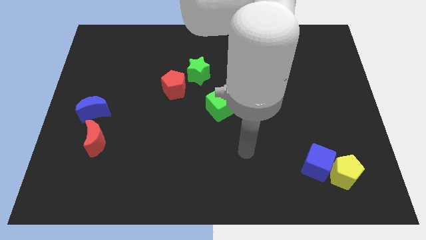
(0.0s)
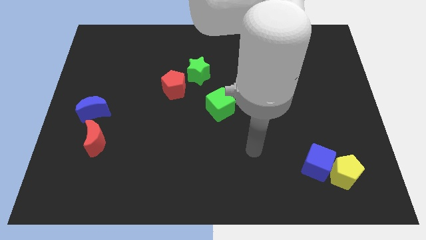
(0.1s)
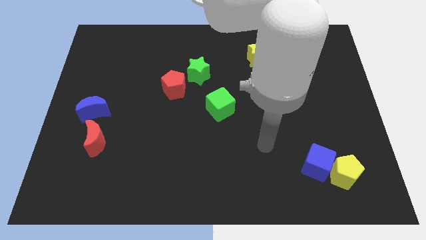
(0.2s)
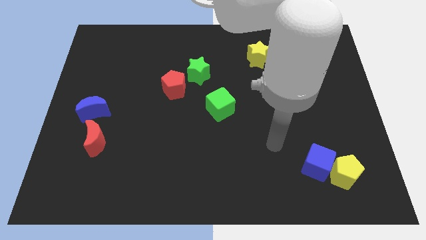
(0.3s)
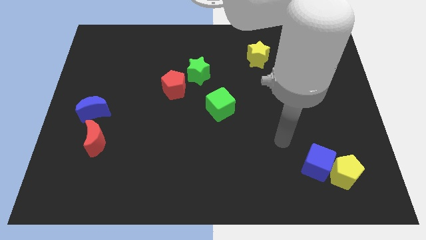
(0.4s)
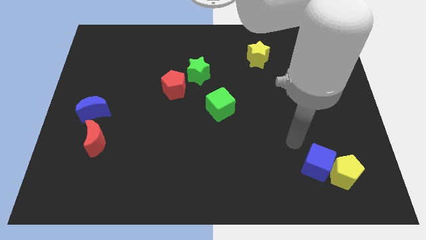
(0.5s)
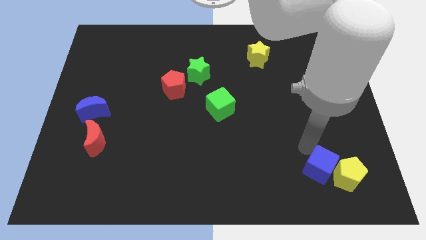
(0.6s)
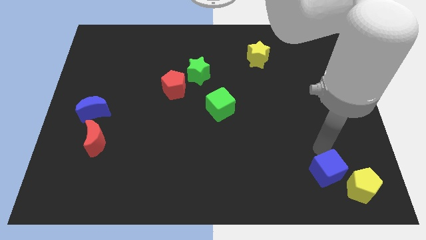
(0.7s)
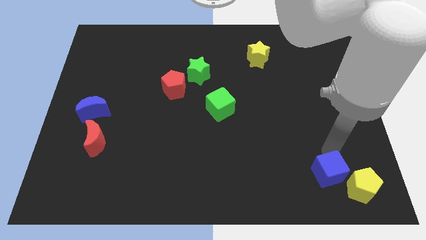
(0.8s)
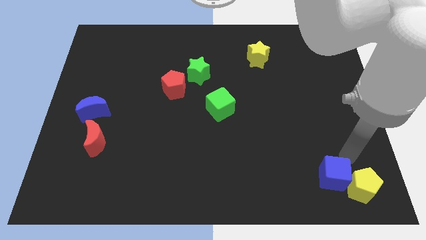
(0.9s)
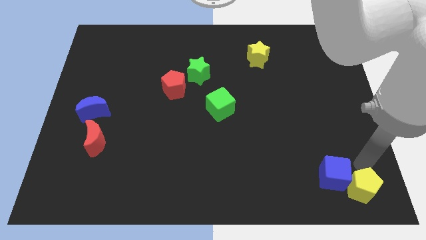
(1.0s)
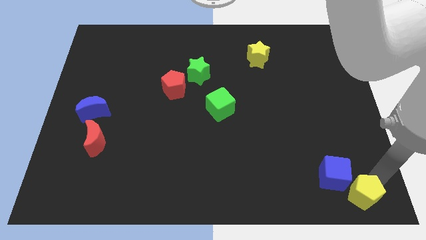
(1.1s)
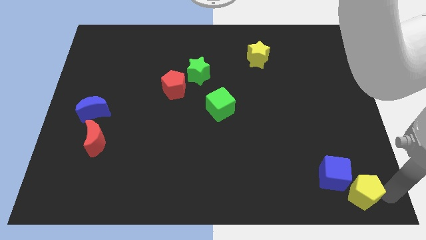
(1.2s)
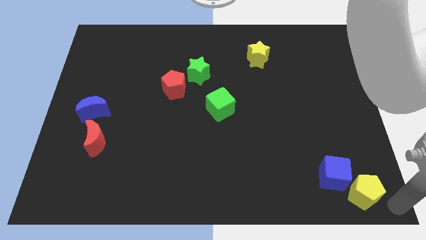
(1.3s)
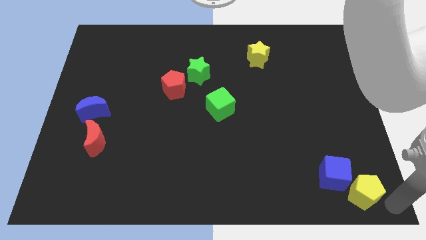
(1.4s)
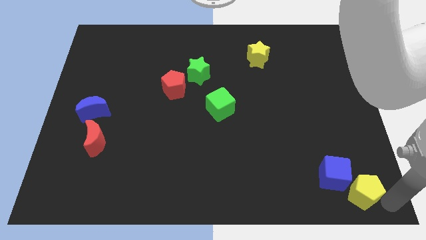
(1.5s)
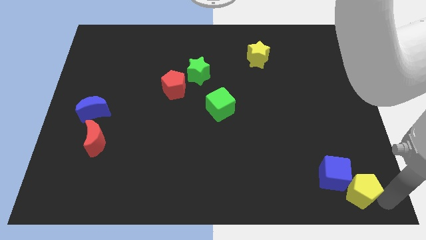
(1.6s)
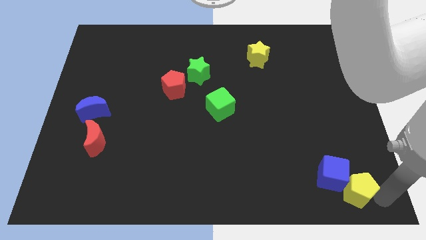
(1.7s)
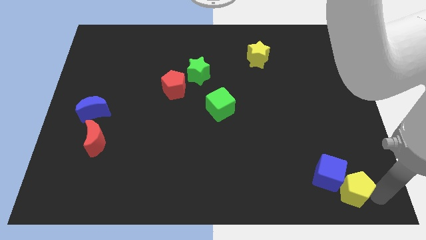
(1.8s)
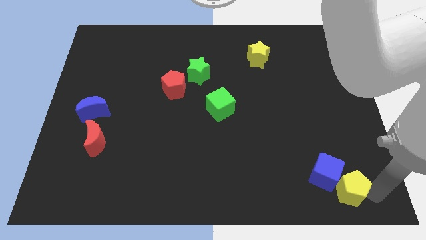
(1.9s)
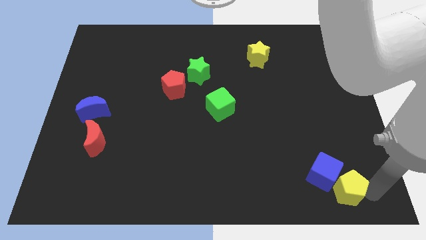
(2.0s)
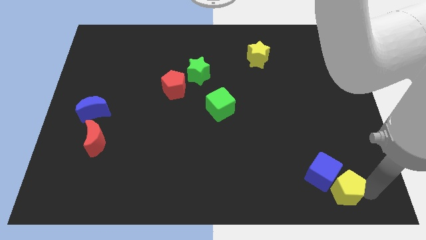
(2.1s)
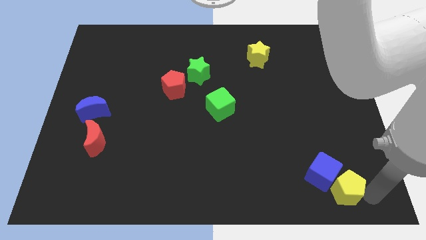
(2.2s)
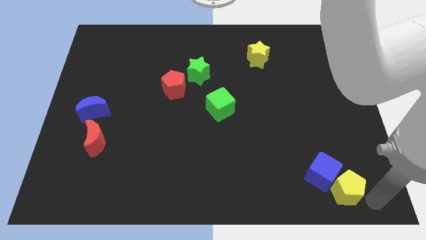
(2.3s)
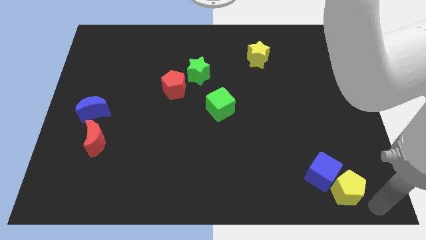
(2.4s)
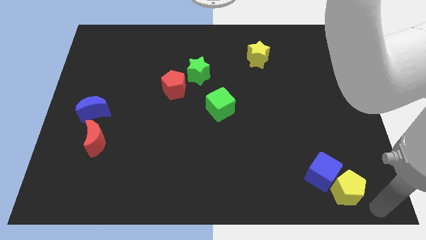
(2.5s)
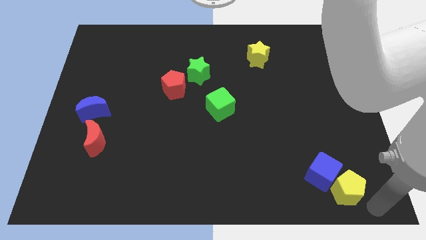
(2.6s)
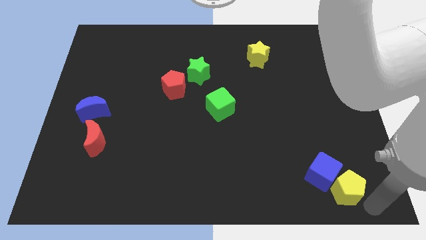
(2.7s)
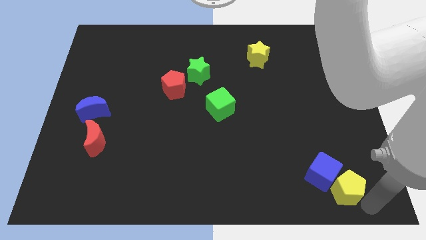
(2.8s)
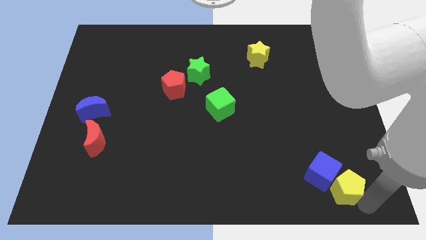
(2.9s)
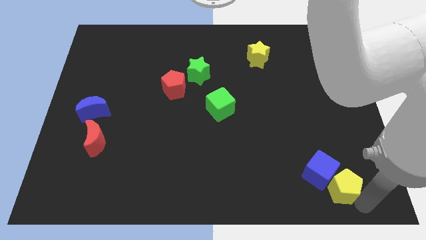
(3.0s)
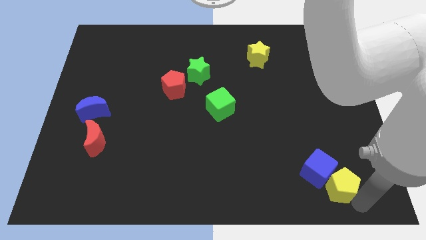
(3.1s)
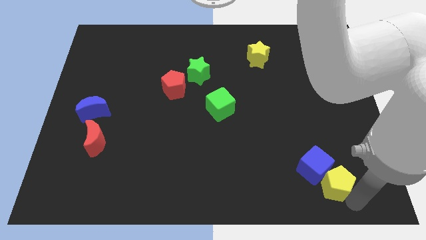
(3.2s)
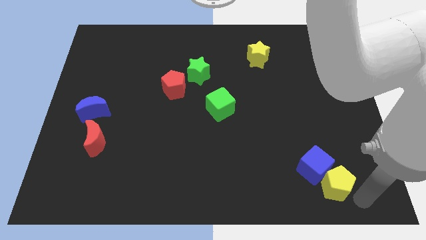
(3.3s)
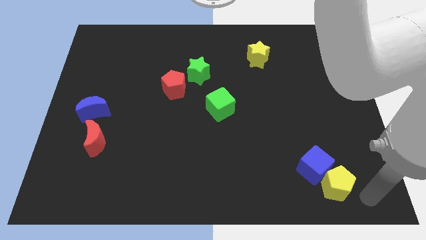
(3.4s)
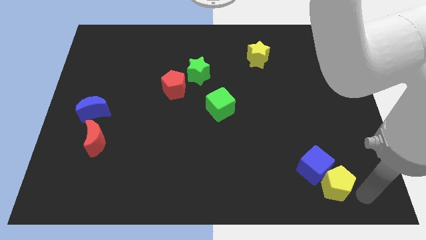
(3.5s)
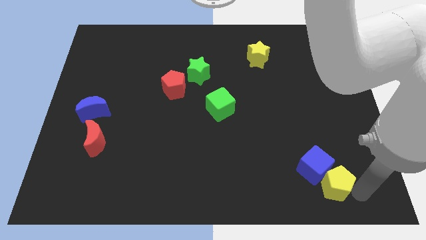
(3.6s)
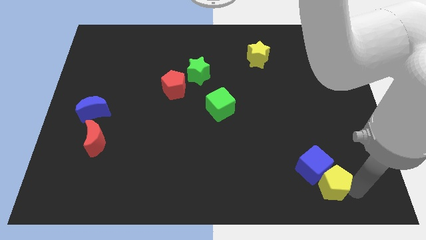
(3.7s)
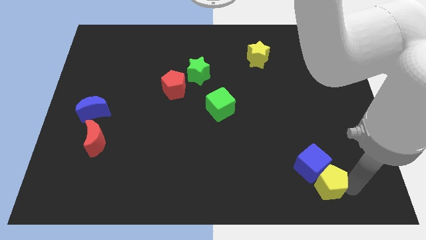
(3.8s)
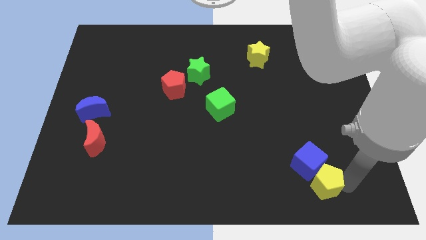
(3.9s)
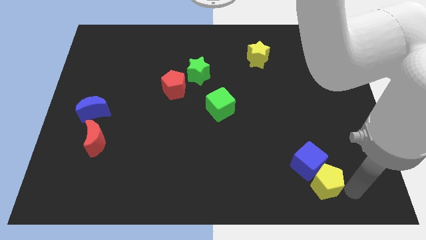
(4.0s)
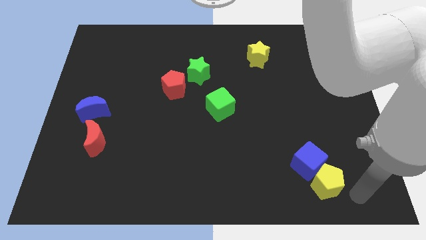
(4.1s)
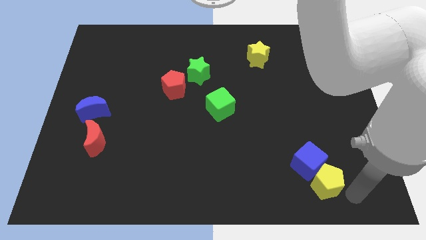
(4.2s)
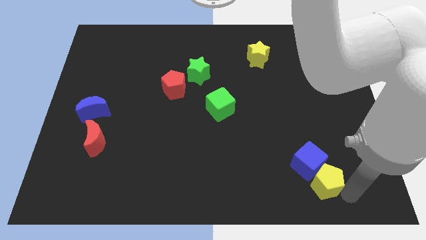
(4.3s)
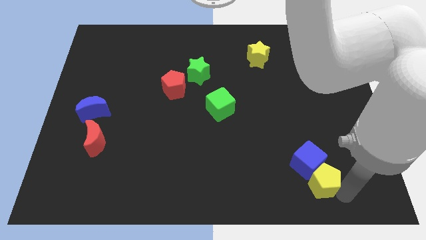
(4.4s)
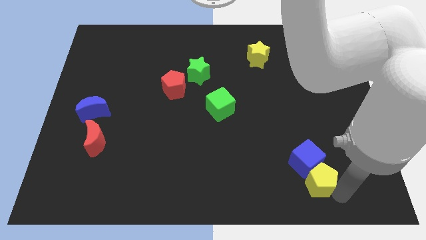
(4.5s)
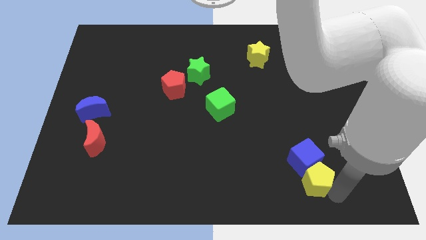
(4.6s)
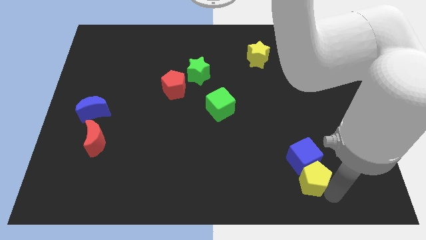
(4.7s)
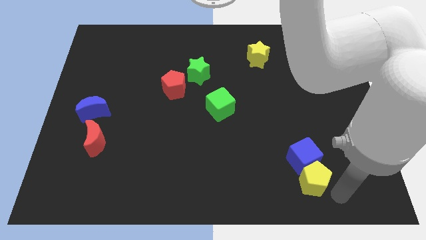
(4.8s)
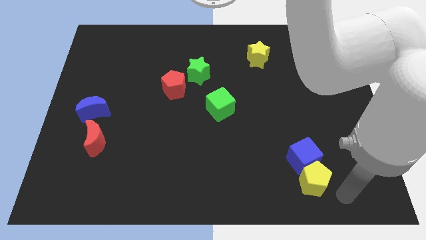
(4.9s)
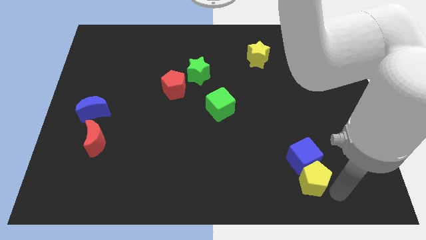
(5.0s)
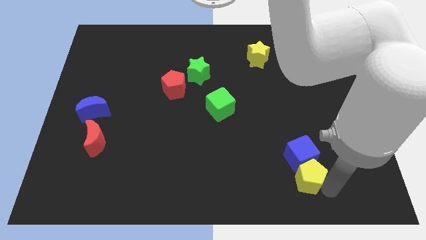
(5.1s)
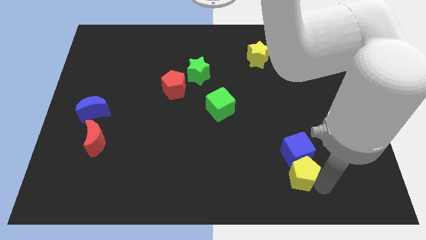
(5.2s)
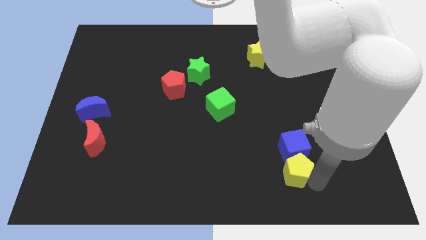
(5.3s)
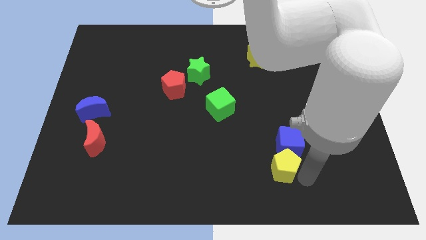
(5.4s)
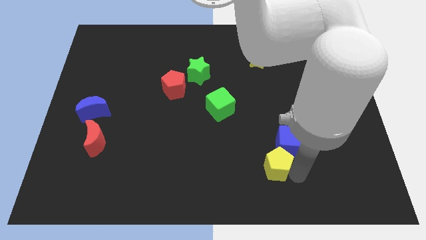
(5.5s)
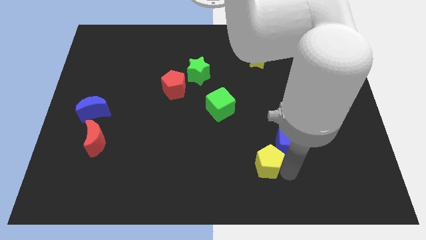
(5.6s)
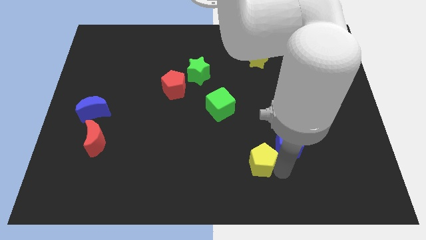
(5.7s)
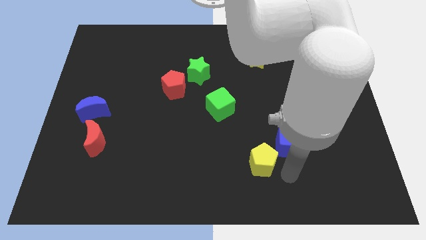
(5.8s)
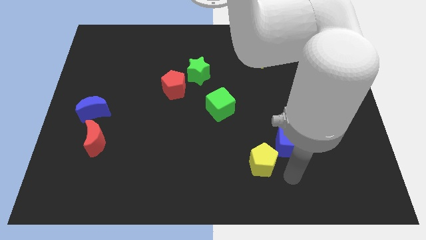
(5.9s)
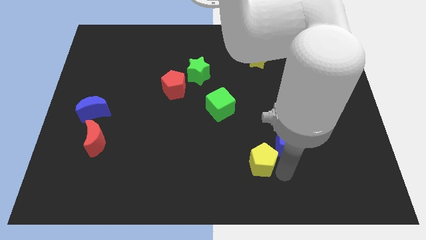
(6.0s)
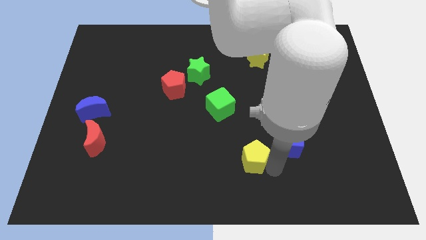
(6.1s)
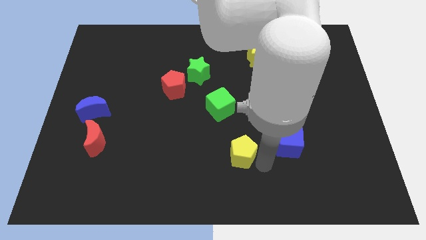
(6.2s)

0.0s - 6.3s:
put the yellow pentagon below the green cube

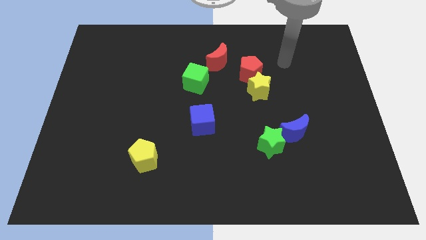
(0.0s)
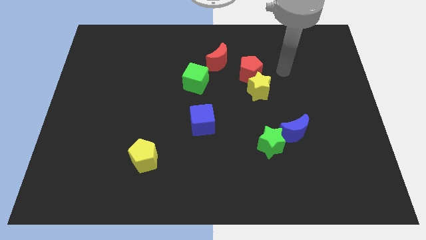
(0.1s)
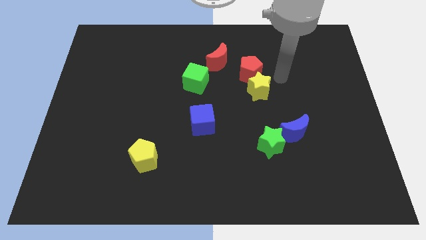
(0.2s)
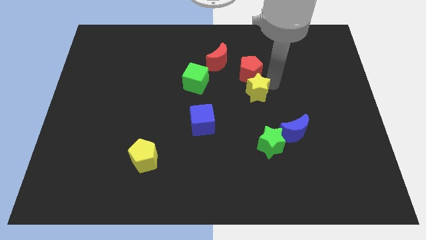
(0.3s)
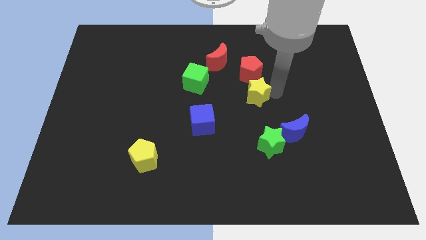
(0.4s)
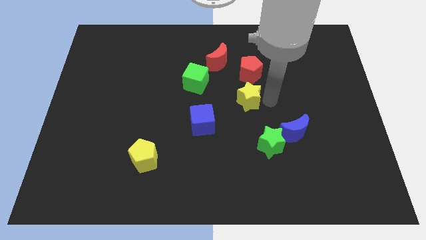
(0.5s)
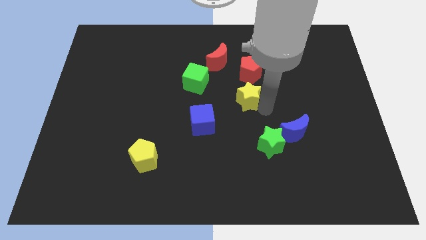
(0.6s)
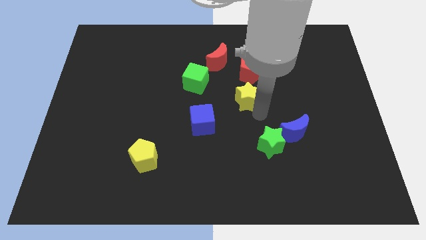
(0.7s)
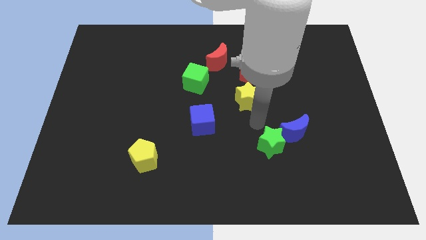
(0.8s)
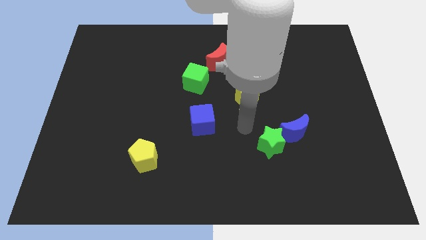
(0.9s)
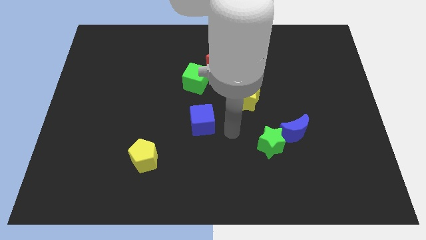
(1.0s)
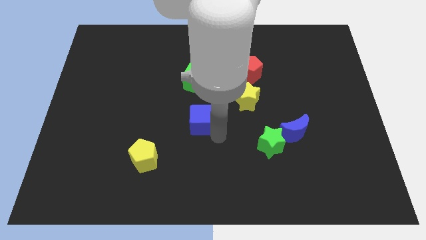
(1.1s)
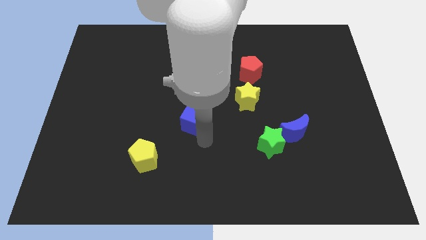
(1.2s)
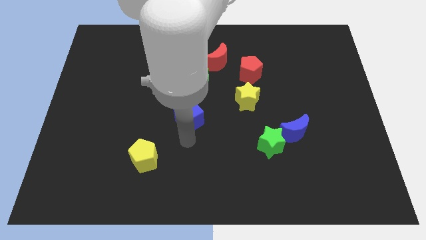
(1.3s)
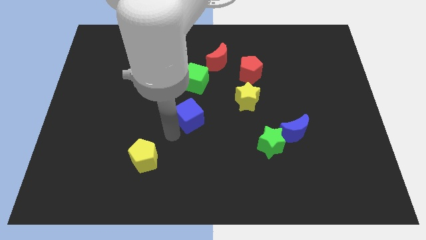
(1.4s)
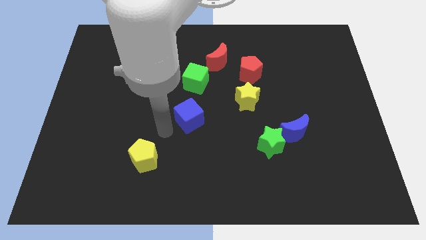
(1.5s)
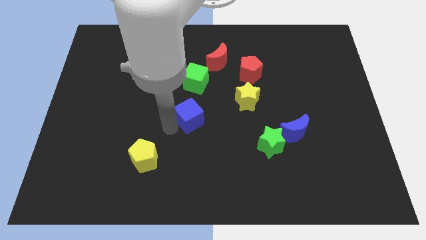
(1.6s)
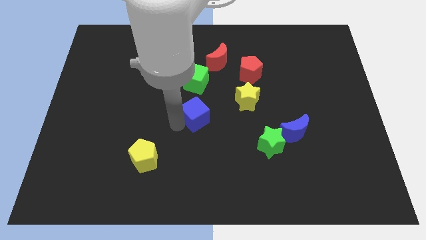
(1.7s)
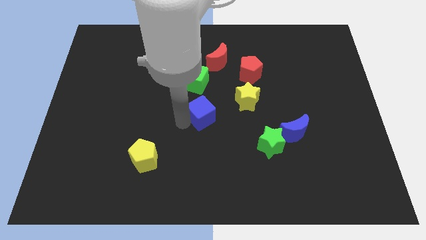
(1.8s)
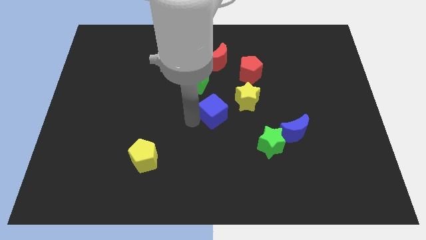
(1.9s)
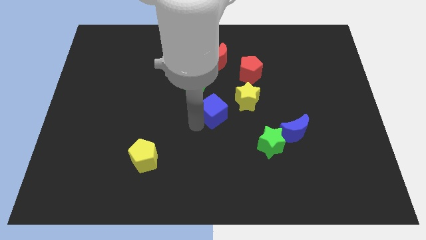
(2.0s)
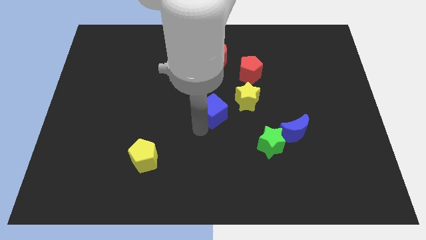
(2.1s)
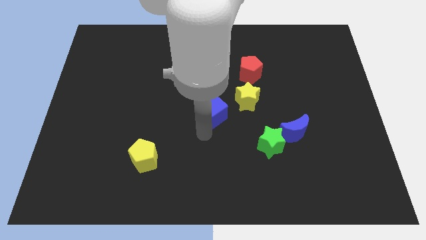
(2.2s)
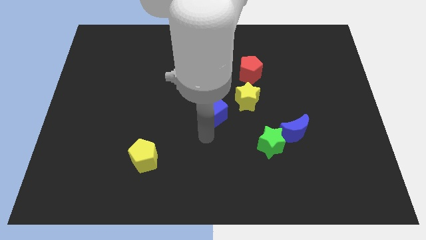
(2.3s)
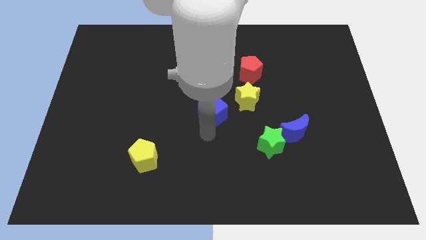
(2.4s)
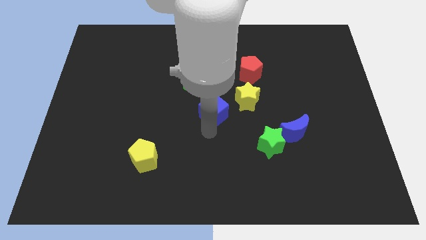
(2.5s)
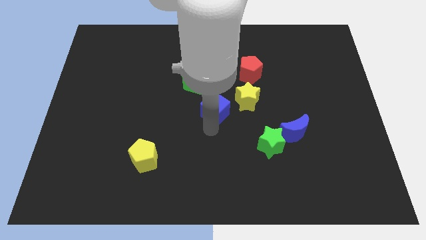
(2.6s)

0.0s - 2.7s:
put the blue cube below the red moon
